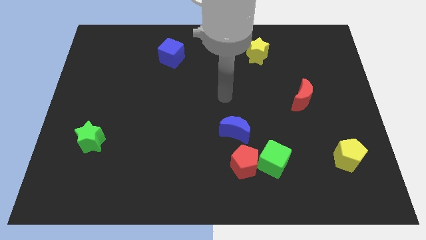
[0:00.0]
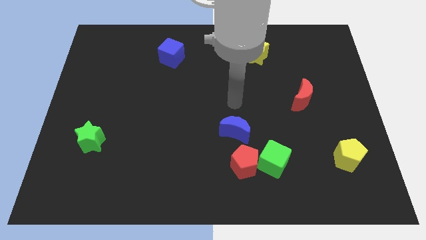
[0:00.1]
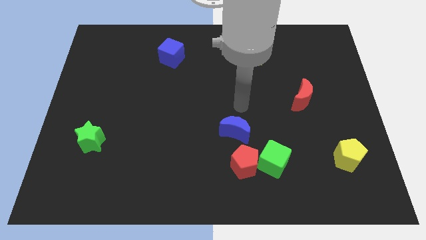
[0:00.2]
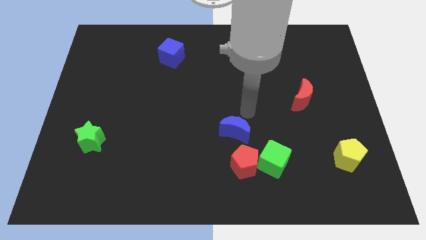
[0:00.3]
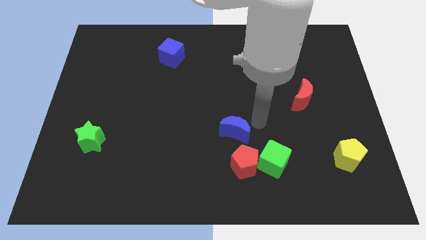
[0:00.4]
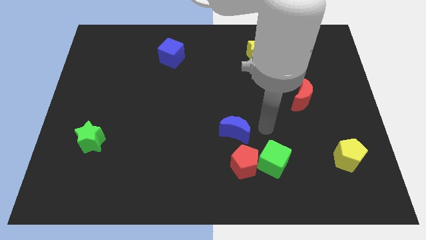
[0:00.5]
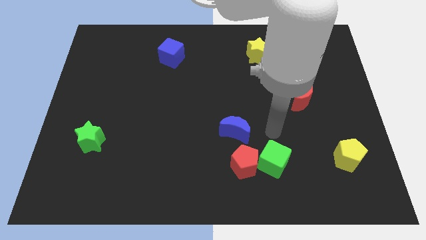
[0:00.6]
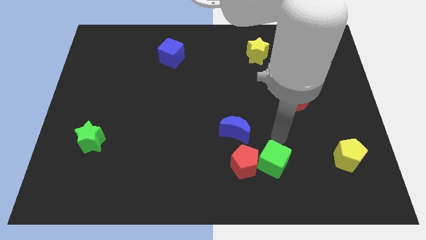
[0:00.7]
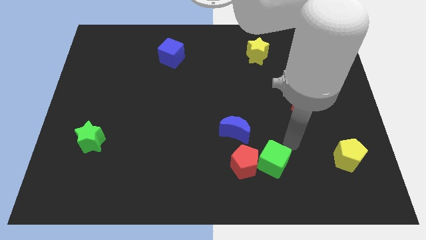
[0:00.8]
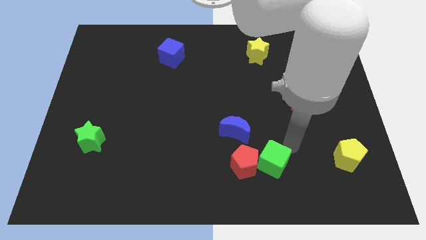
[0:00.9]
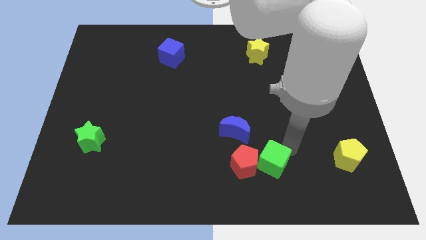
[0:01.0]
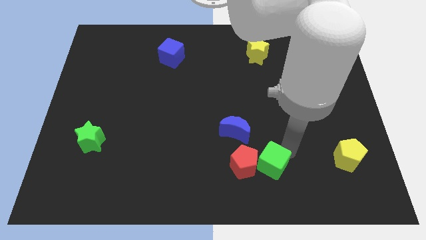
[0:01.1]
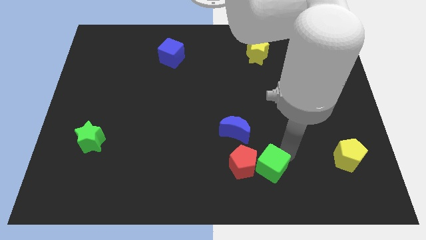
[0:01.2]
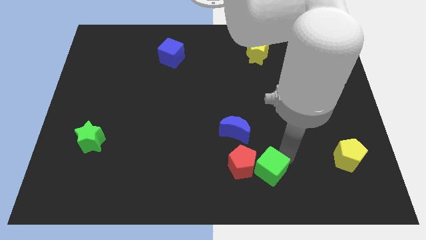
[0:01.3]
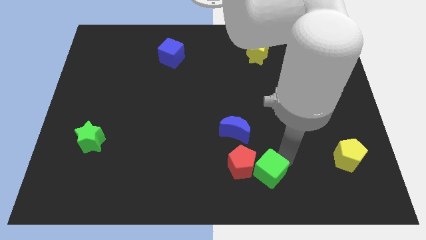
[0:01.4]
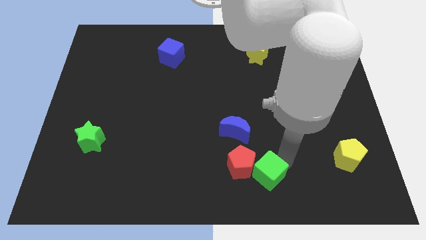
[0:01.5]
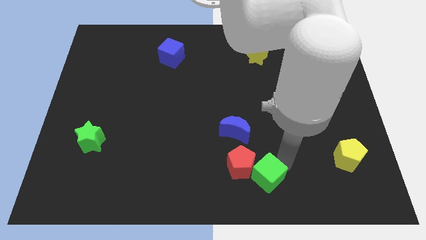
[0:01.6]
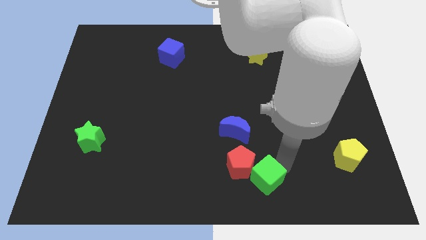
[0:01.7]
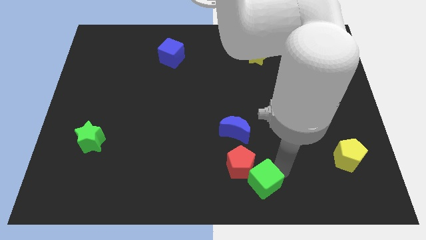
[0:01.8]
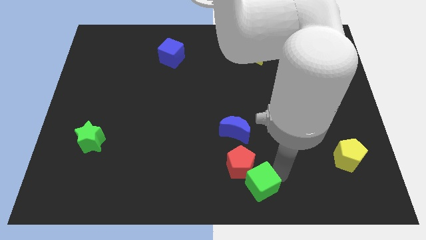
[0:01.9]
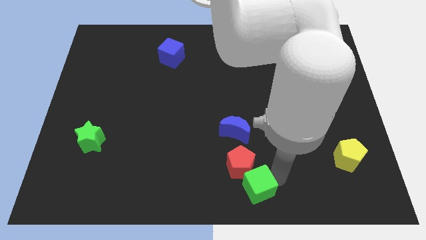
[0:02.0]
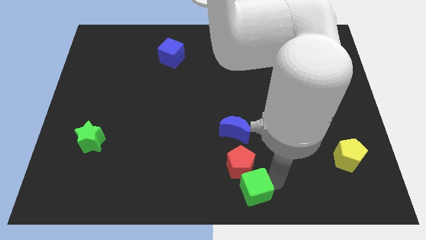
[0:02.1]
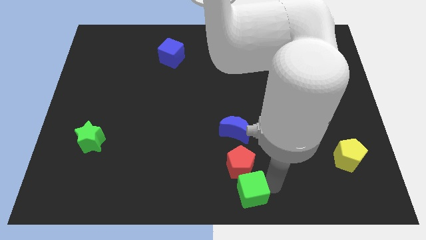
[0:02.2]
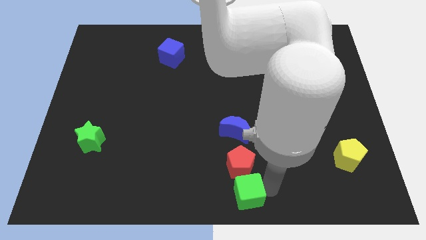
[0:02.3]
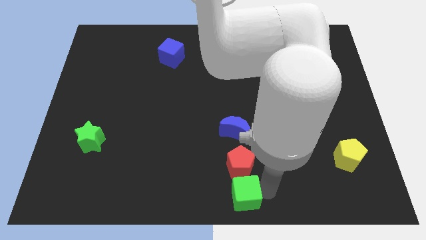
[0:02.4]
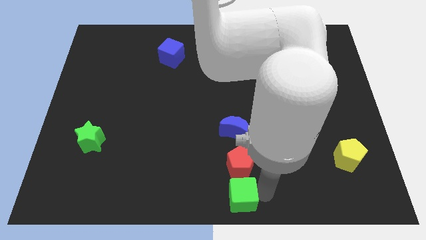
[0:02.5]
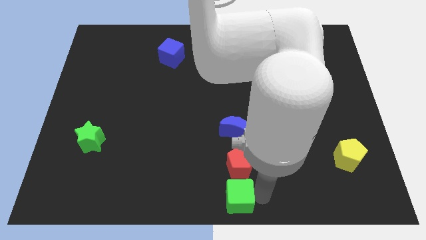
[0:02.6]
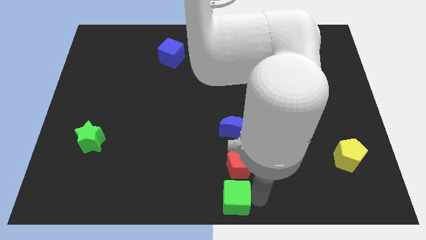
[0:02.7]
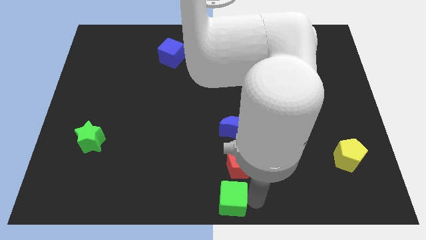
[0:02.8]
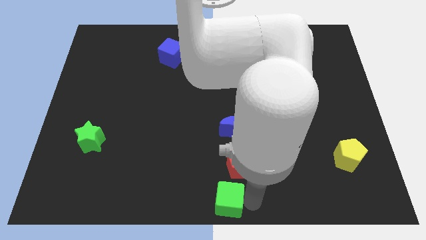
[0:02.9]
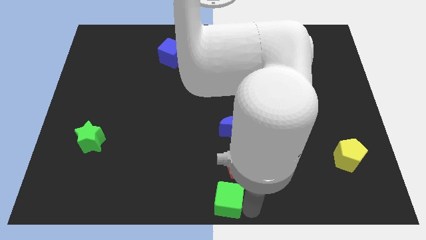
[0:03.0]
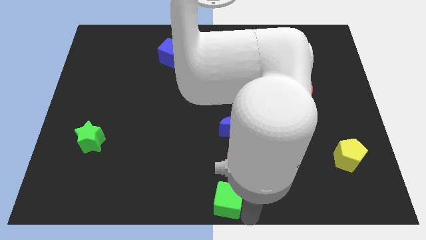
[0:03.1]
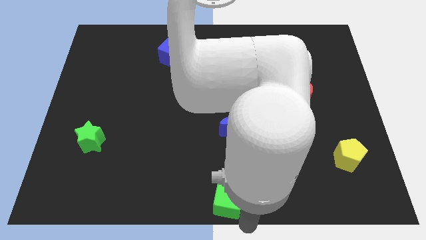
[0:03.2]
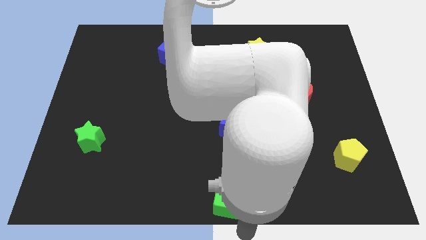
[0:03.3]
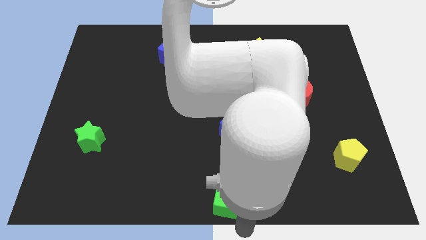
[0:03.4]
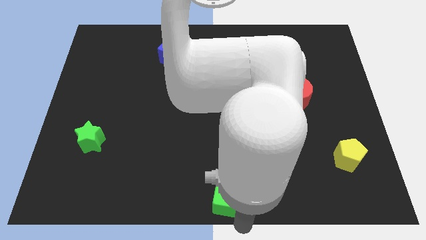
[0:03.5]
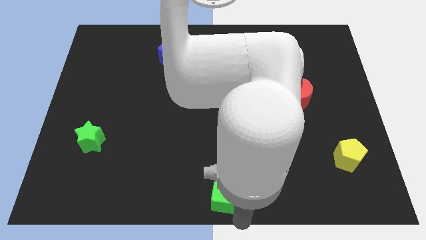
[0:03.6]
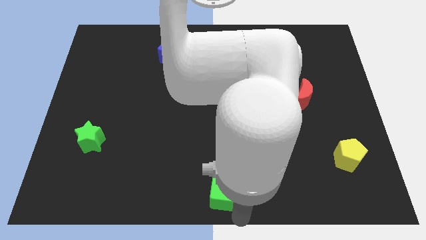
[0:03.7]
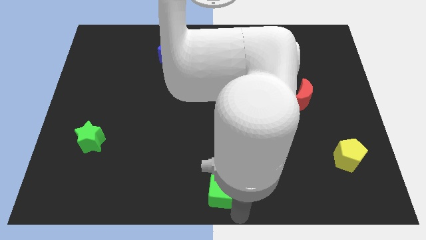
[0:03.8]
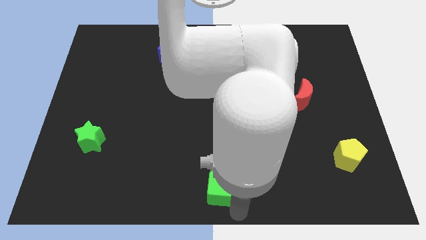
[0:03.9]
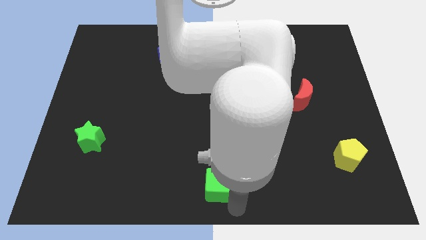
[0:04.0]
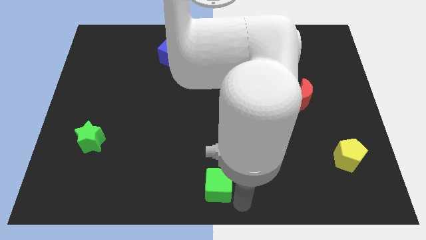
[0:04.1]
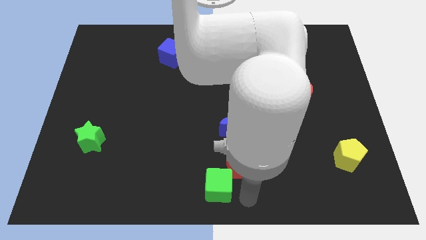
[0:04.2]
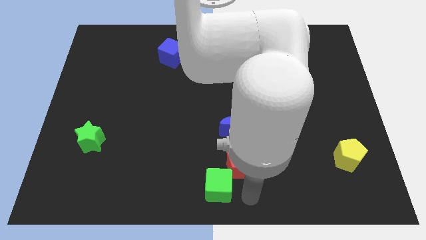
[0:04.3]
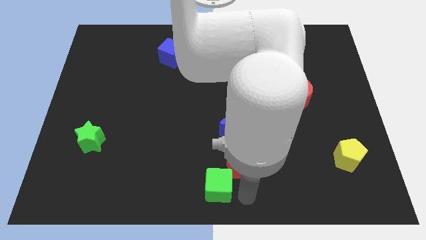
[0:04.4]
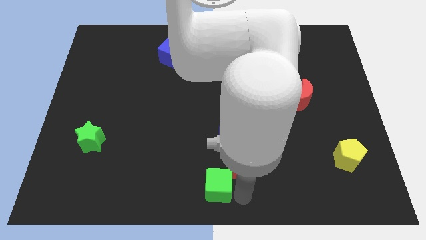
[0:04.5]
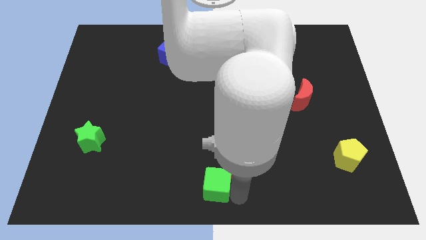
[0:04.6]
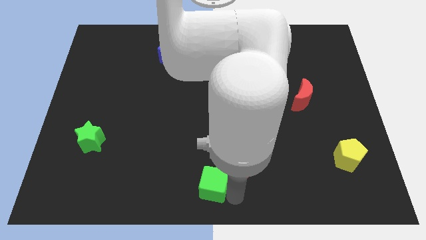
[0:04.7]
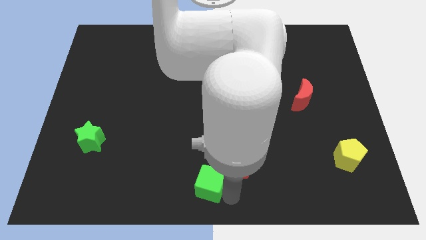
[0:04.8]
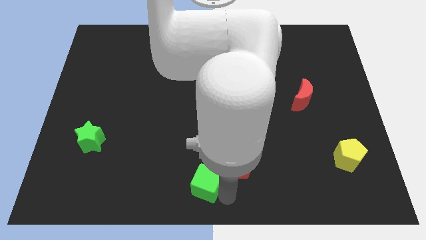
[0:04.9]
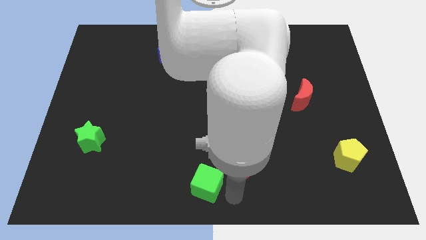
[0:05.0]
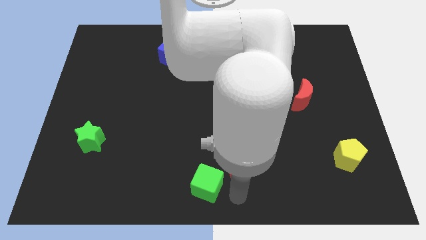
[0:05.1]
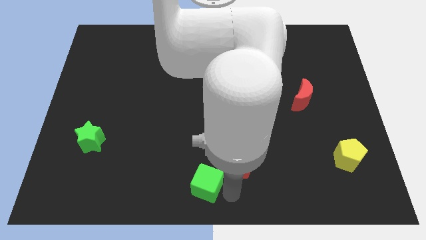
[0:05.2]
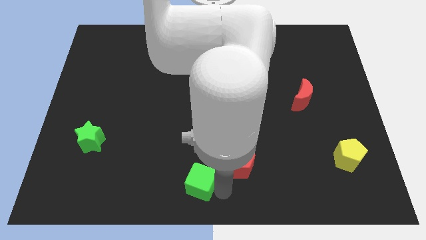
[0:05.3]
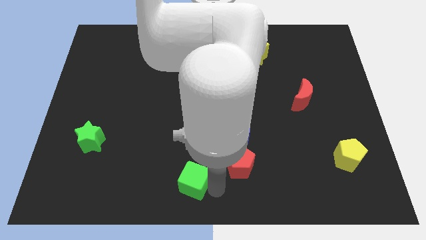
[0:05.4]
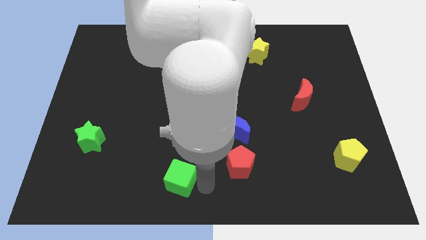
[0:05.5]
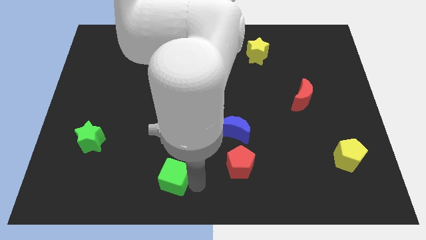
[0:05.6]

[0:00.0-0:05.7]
push the green cube to the left

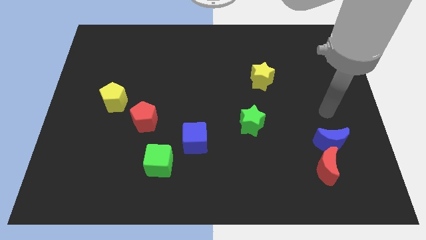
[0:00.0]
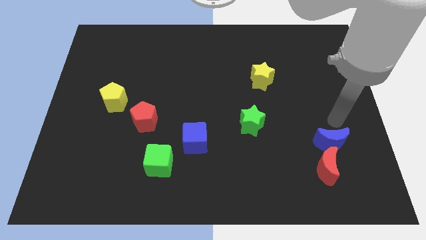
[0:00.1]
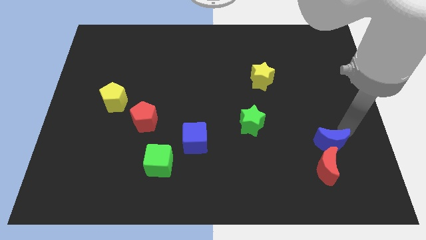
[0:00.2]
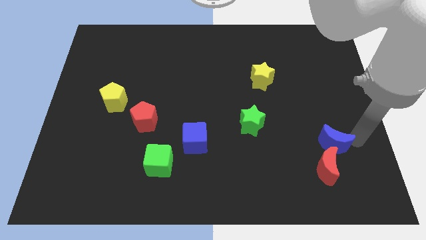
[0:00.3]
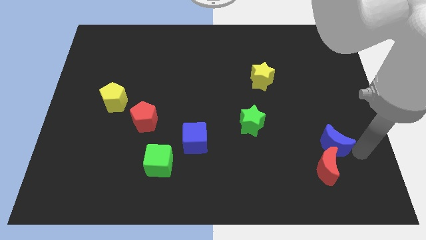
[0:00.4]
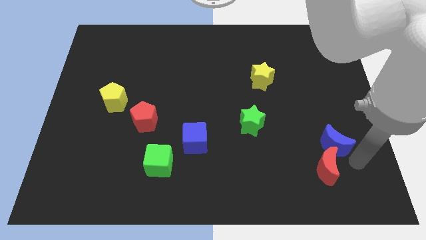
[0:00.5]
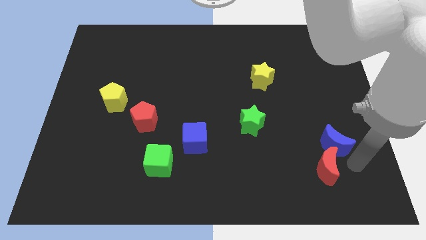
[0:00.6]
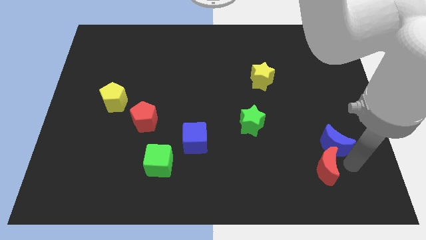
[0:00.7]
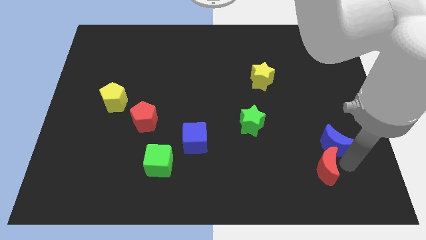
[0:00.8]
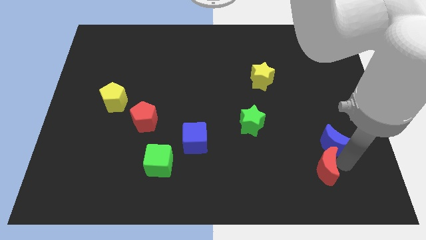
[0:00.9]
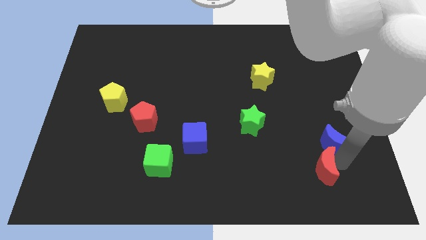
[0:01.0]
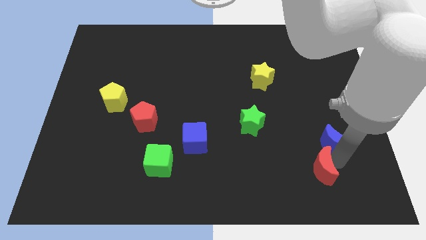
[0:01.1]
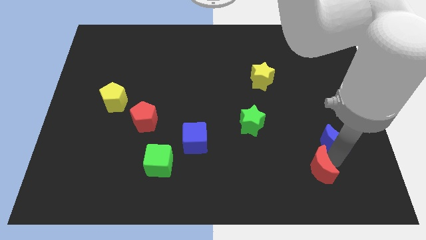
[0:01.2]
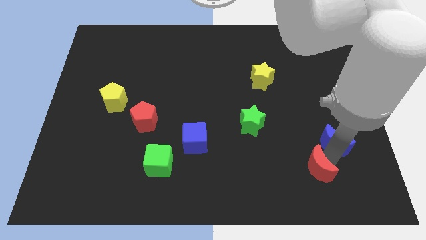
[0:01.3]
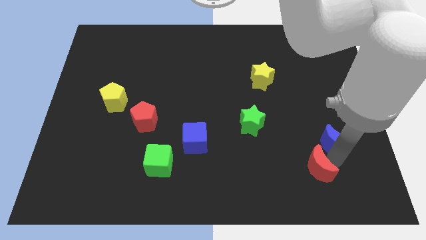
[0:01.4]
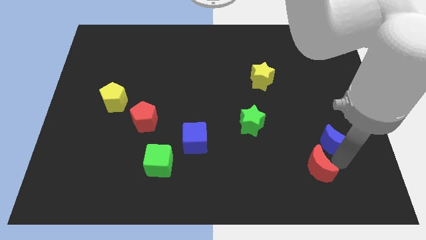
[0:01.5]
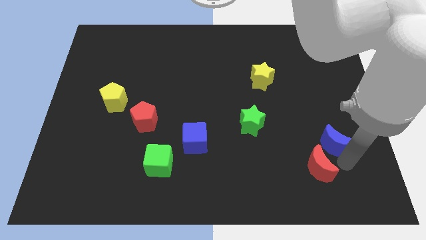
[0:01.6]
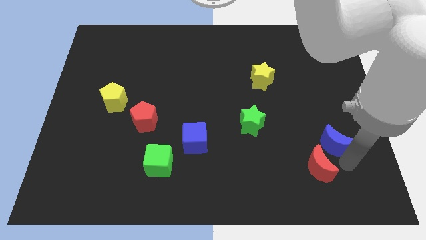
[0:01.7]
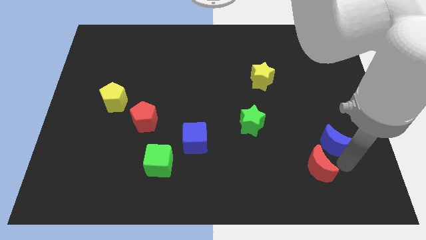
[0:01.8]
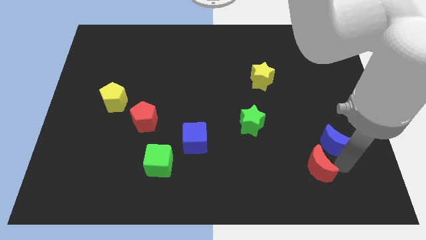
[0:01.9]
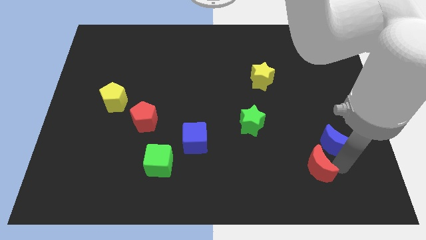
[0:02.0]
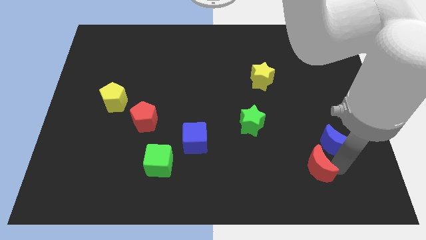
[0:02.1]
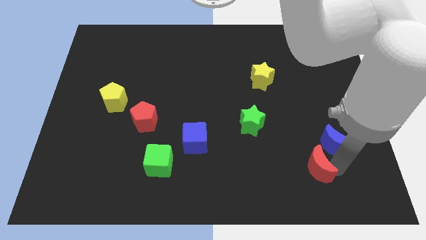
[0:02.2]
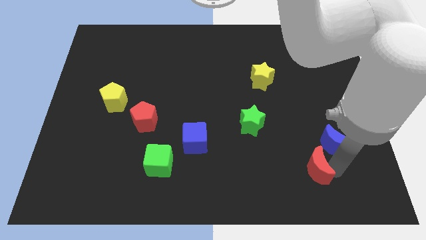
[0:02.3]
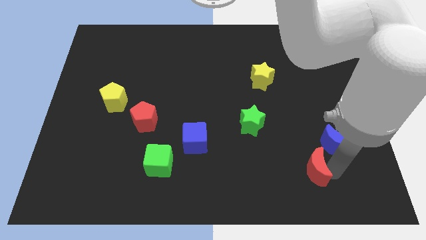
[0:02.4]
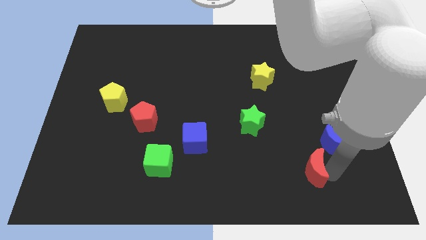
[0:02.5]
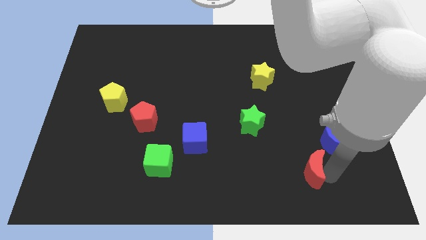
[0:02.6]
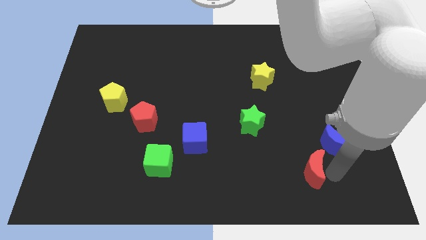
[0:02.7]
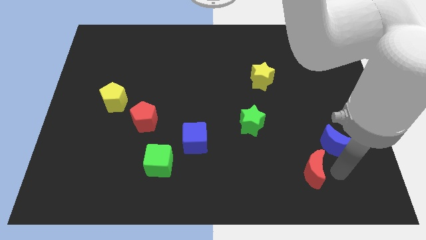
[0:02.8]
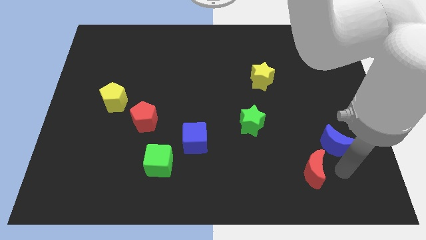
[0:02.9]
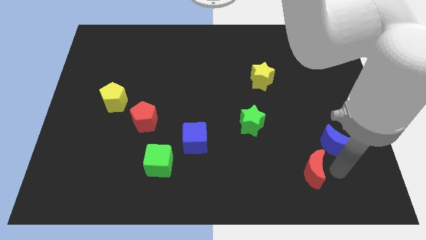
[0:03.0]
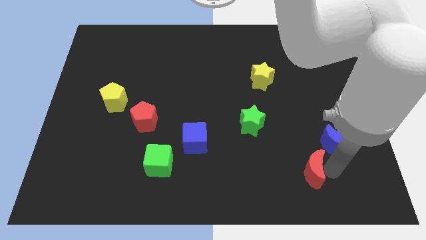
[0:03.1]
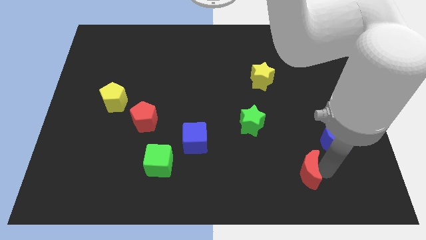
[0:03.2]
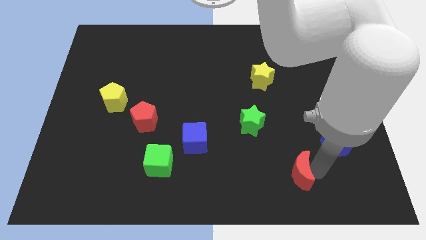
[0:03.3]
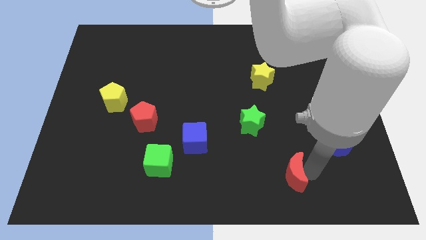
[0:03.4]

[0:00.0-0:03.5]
slightly move the red moon to the left
